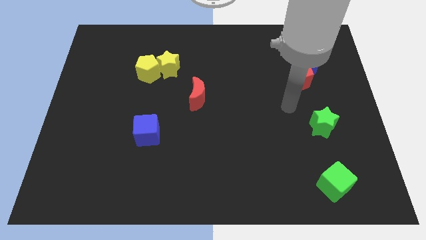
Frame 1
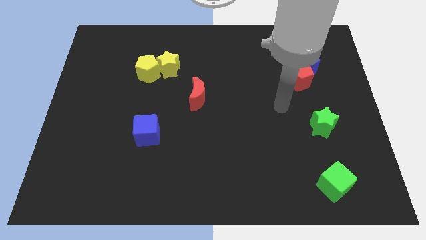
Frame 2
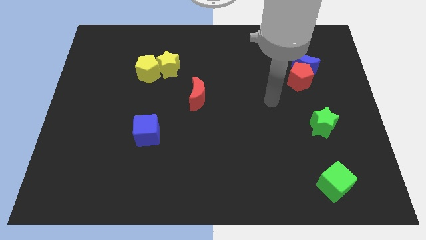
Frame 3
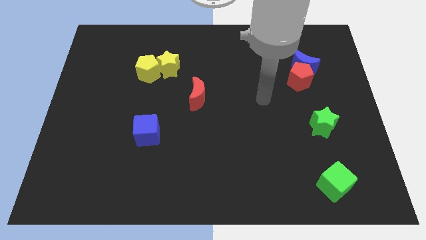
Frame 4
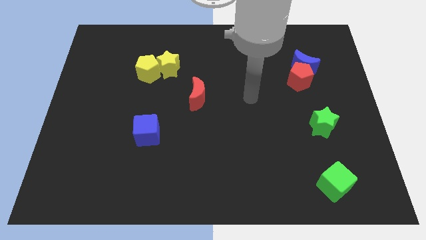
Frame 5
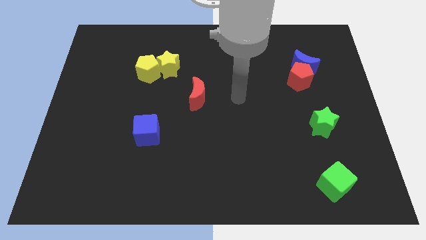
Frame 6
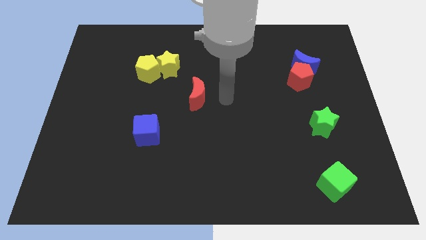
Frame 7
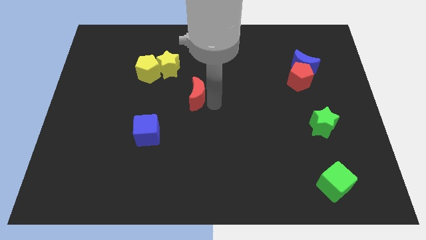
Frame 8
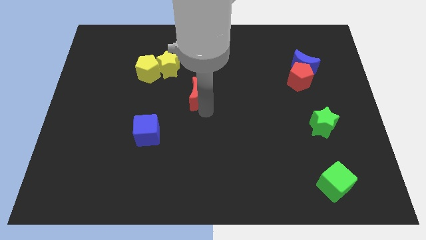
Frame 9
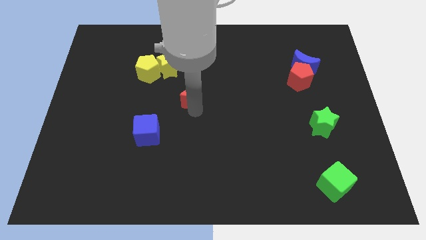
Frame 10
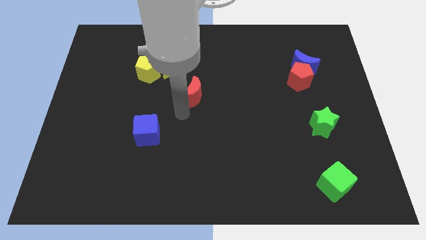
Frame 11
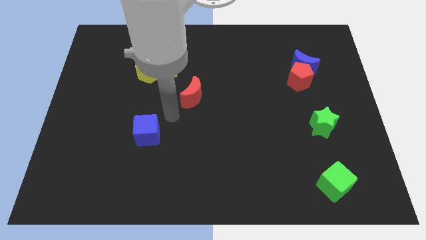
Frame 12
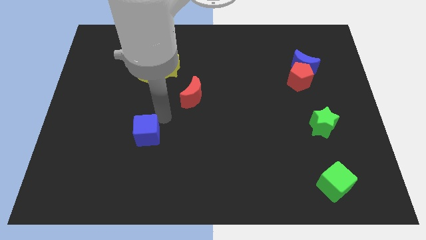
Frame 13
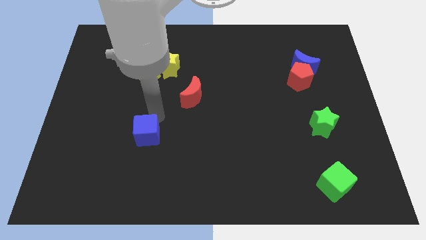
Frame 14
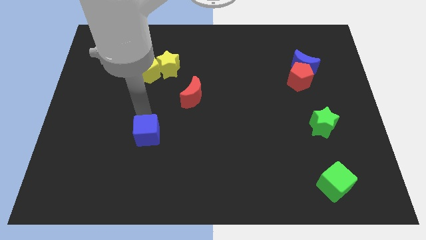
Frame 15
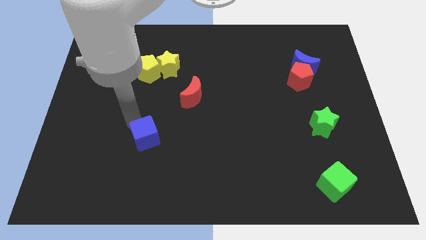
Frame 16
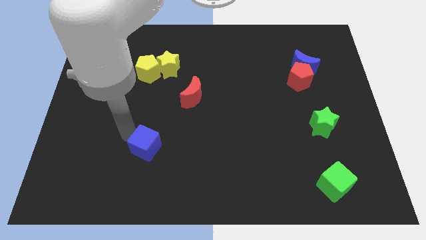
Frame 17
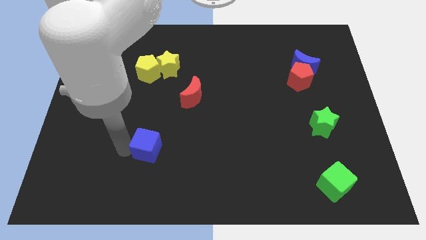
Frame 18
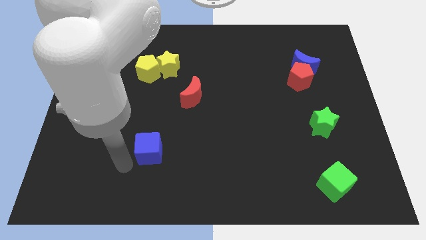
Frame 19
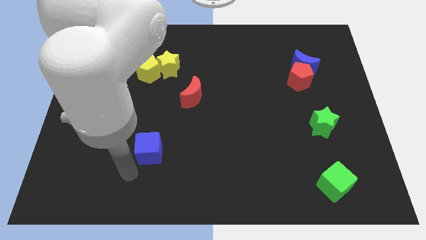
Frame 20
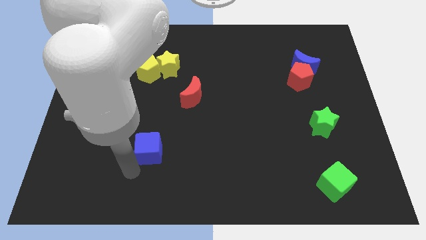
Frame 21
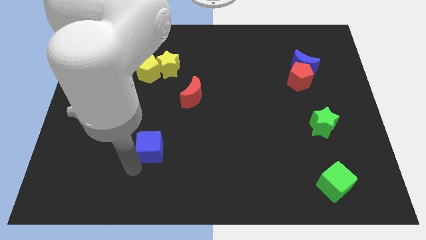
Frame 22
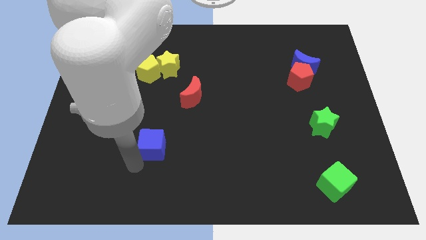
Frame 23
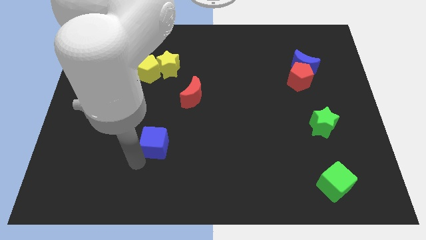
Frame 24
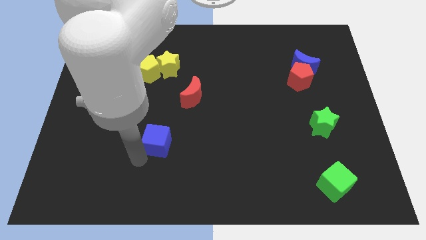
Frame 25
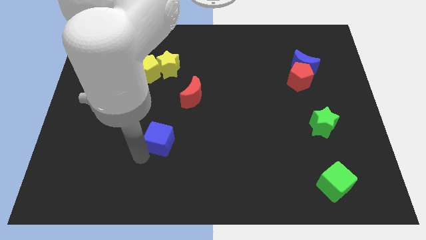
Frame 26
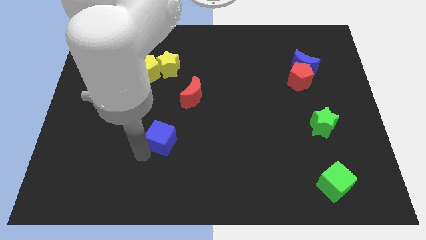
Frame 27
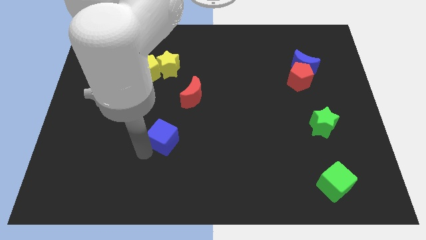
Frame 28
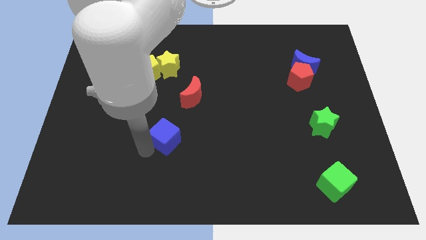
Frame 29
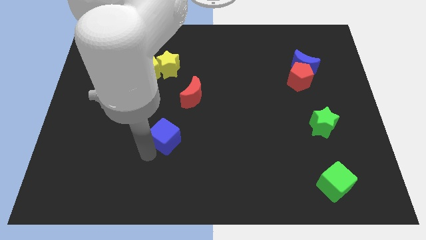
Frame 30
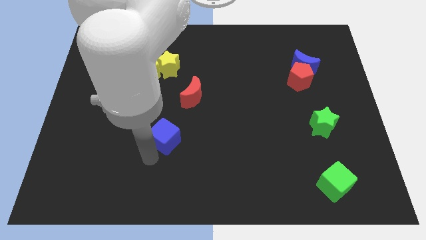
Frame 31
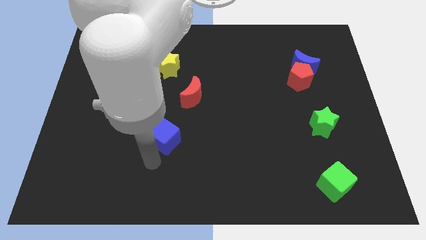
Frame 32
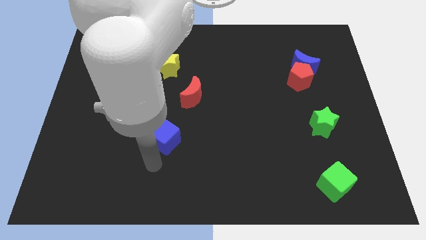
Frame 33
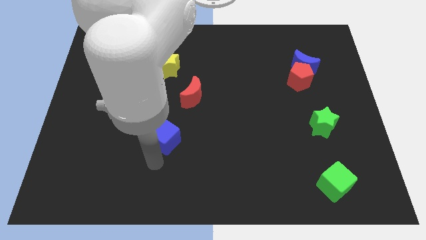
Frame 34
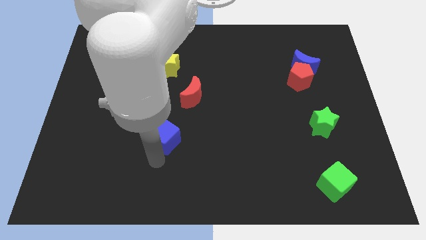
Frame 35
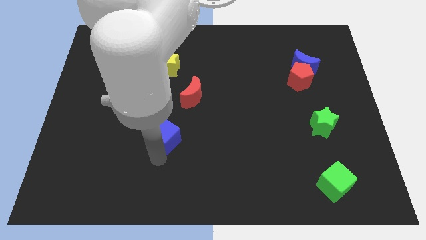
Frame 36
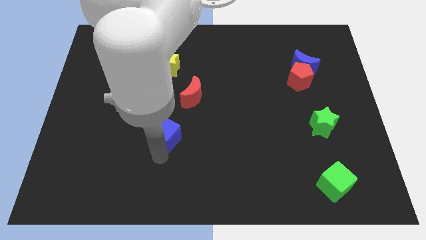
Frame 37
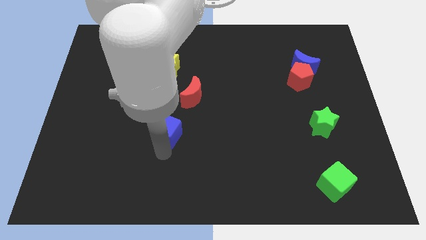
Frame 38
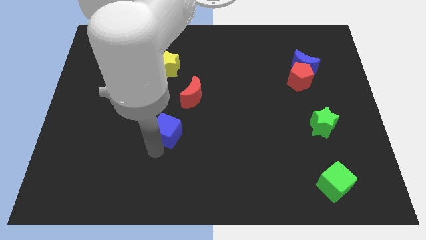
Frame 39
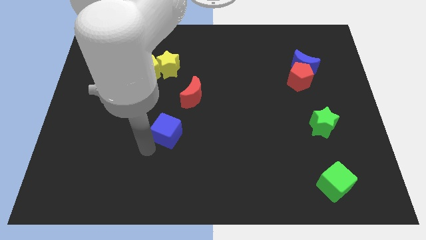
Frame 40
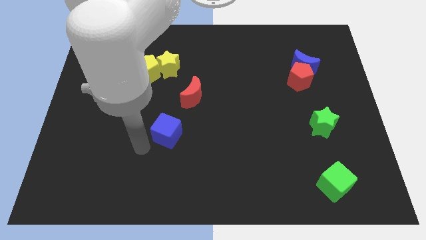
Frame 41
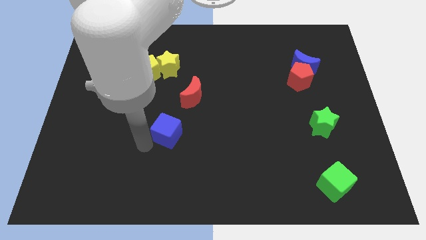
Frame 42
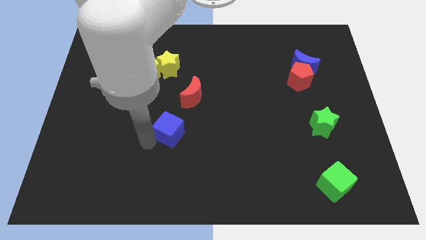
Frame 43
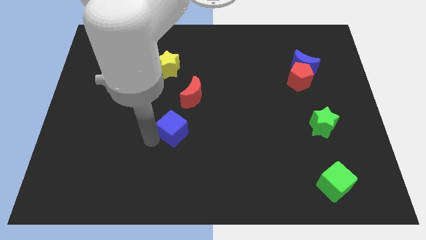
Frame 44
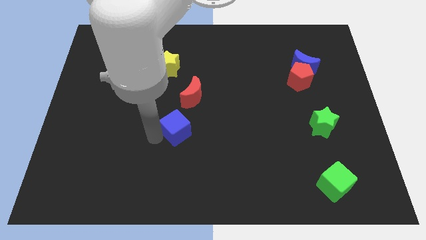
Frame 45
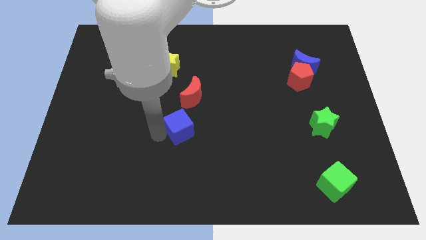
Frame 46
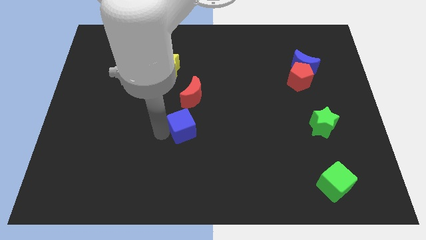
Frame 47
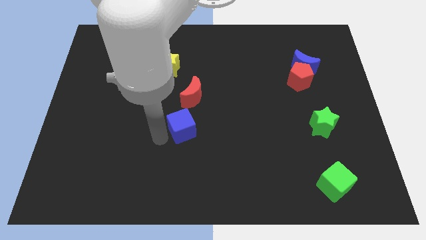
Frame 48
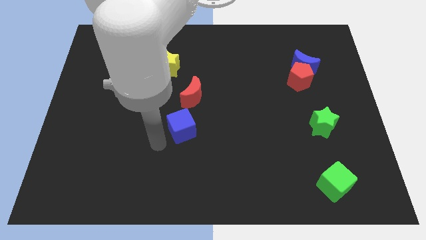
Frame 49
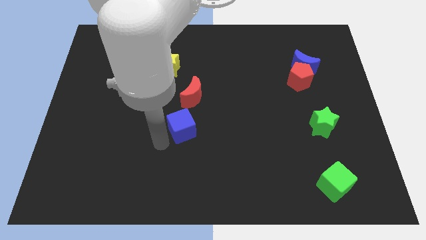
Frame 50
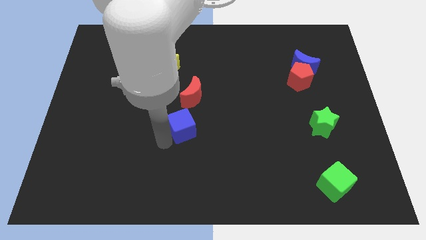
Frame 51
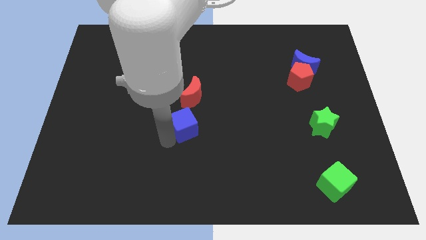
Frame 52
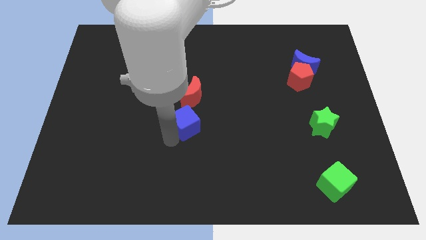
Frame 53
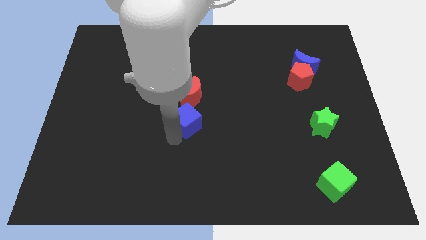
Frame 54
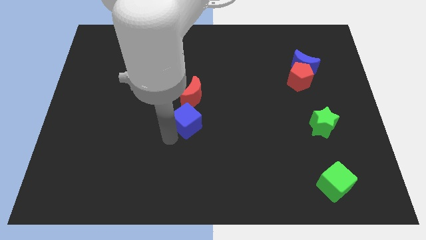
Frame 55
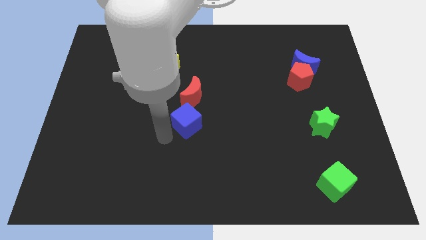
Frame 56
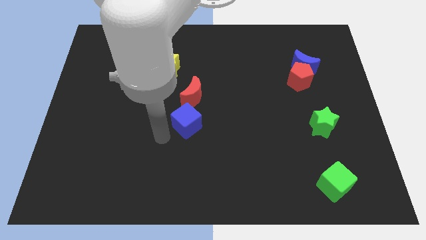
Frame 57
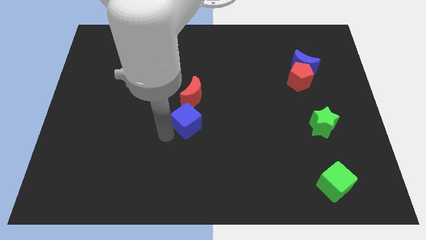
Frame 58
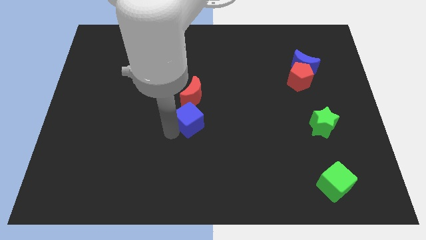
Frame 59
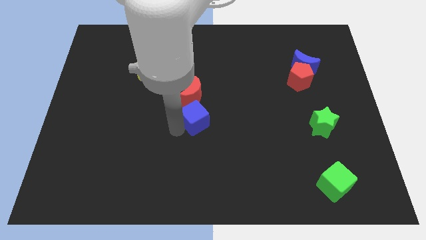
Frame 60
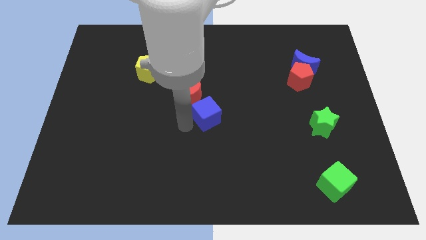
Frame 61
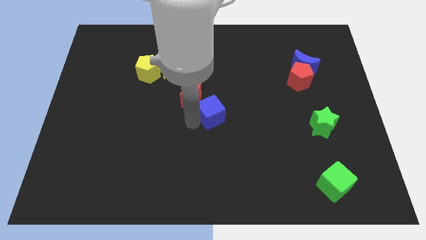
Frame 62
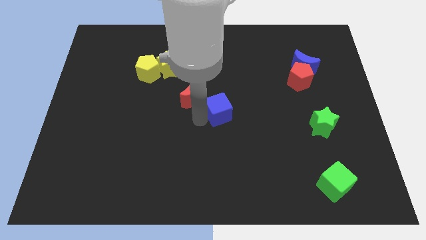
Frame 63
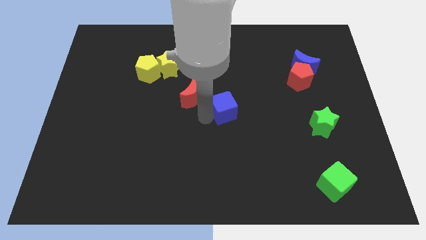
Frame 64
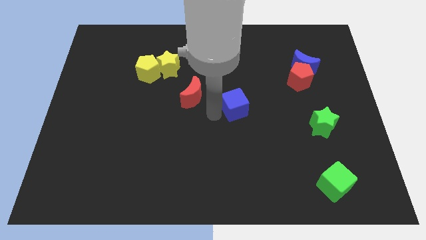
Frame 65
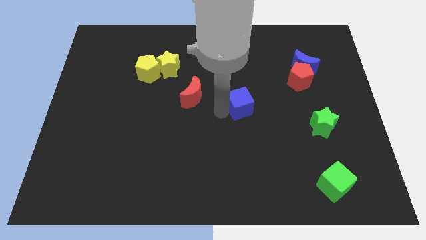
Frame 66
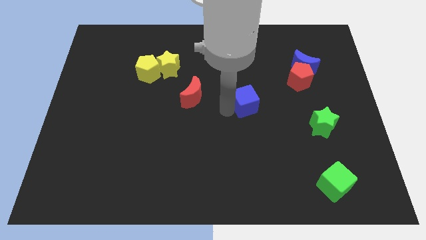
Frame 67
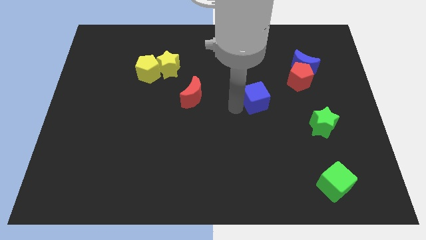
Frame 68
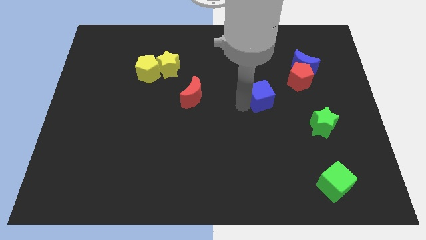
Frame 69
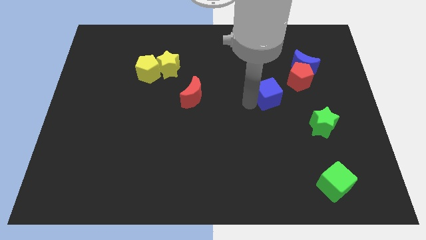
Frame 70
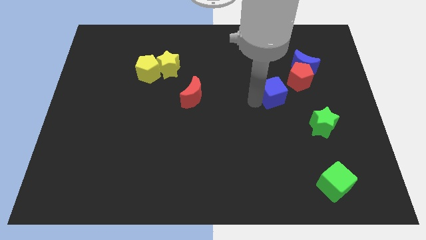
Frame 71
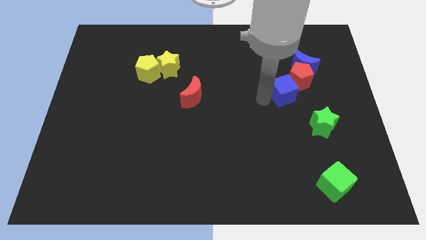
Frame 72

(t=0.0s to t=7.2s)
put the blue cube close to the red pentagon

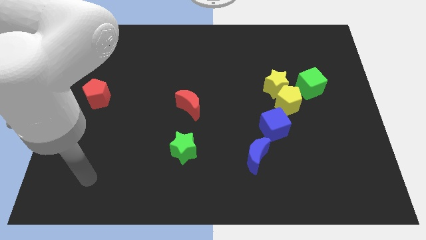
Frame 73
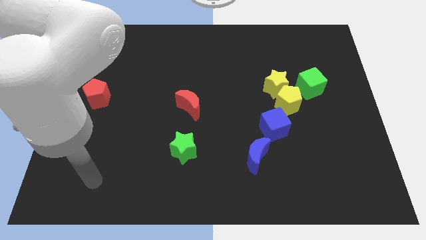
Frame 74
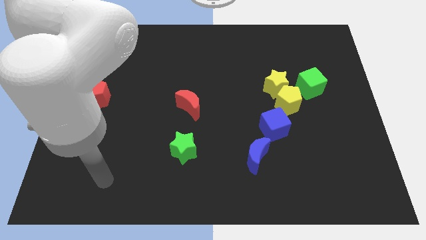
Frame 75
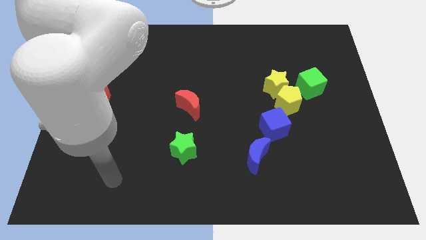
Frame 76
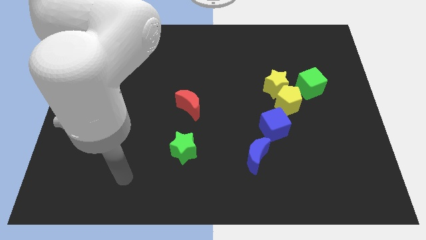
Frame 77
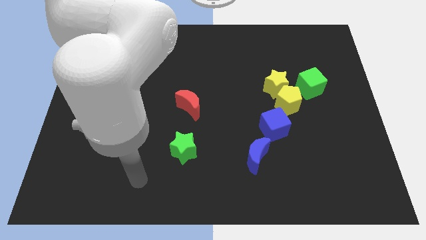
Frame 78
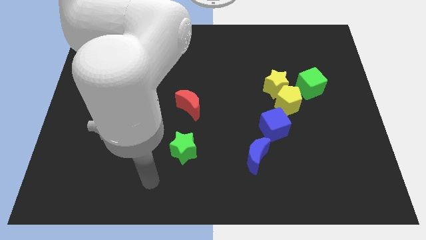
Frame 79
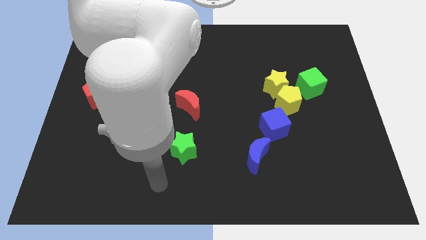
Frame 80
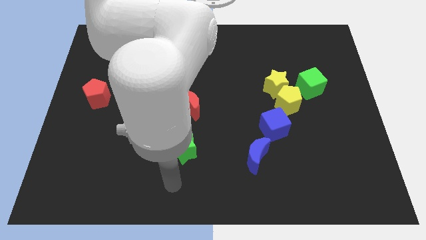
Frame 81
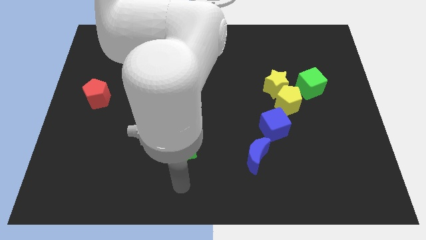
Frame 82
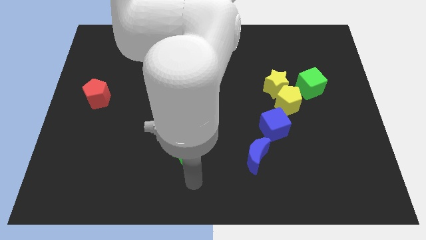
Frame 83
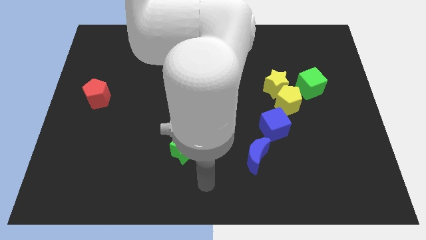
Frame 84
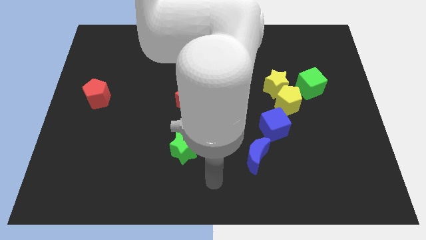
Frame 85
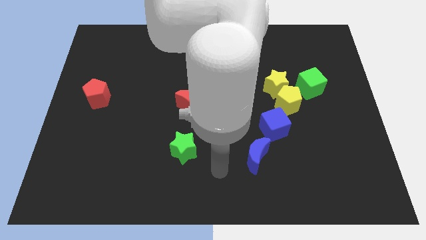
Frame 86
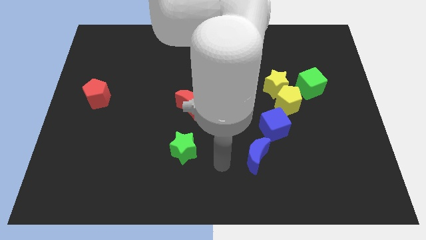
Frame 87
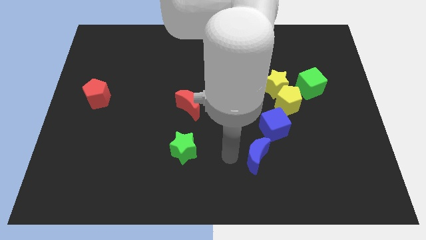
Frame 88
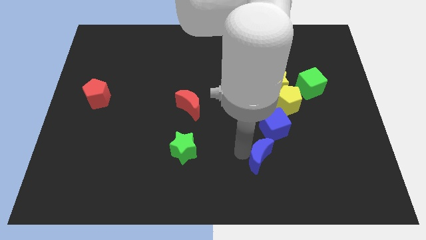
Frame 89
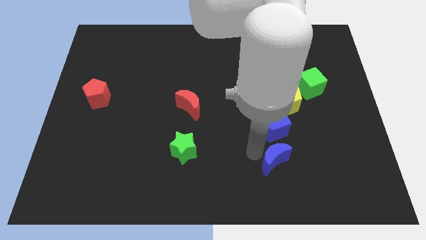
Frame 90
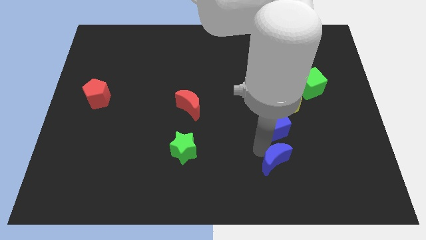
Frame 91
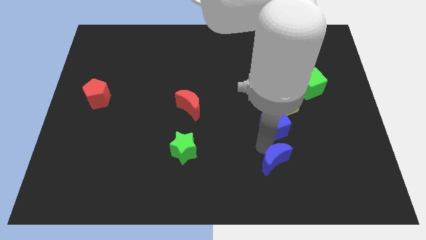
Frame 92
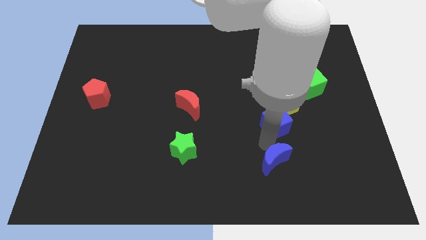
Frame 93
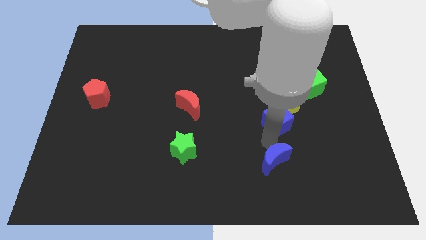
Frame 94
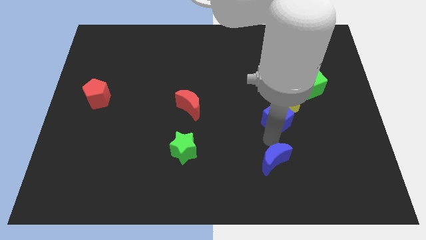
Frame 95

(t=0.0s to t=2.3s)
slide the blue cube towards the yellow pentagon
